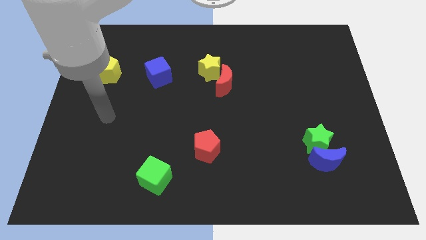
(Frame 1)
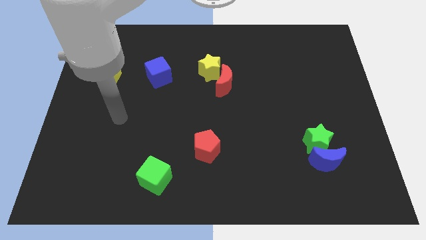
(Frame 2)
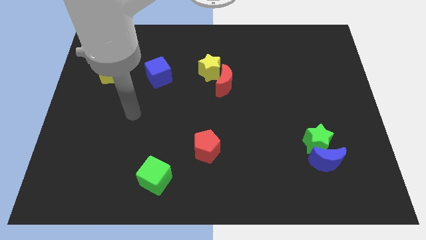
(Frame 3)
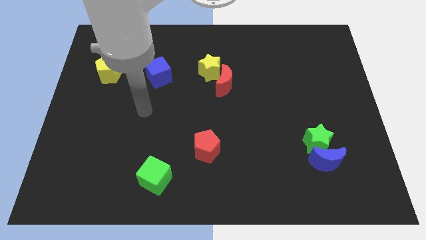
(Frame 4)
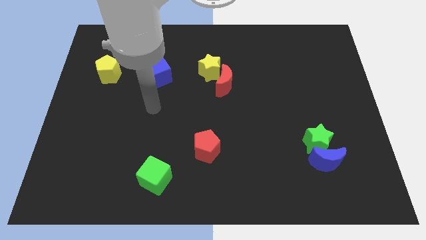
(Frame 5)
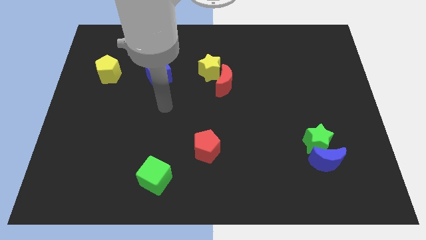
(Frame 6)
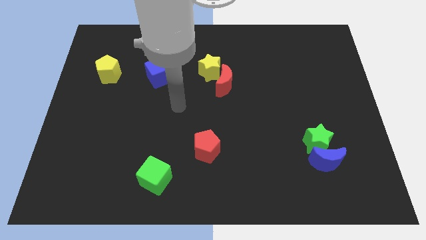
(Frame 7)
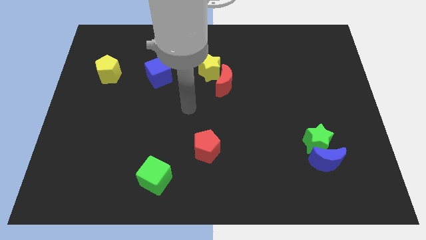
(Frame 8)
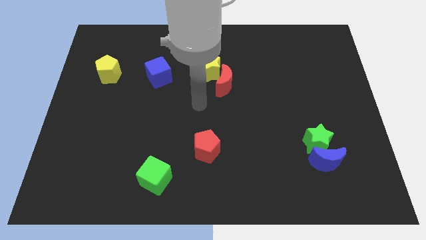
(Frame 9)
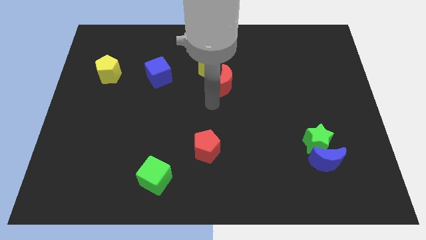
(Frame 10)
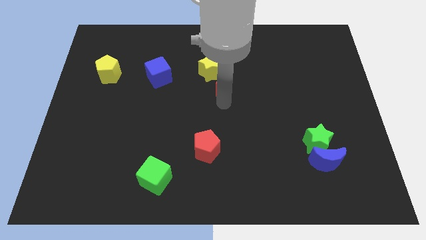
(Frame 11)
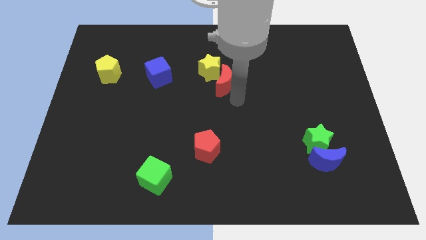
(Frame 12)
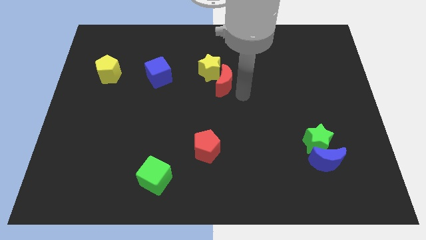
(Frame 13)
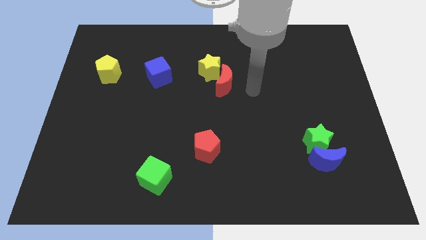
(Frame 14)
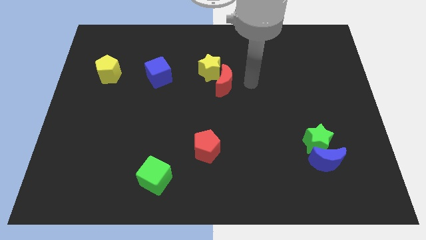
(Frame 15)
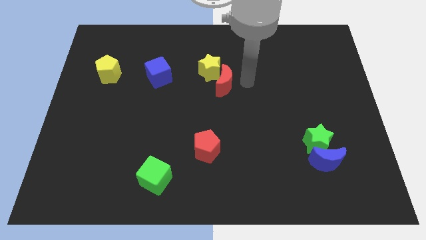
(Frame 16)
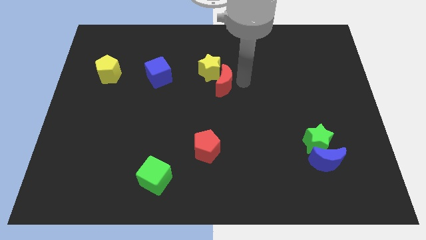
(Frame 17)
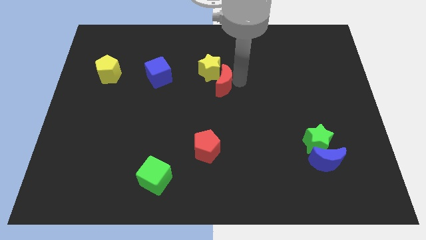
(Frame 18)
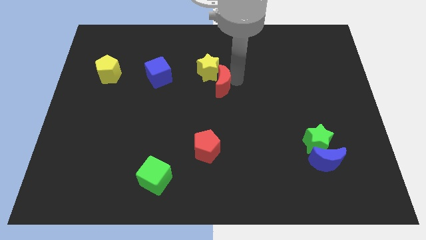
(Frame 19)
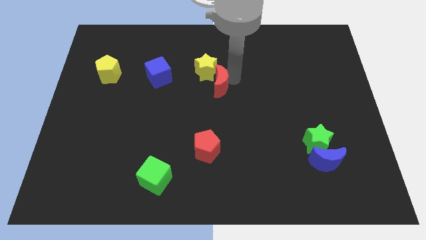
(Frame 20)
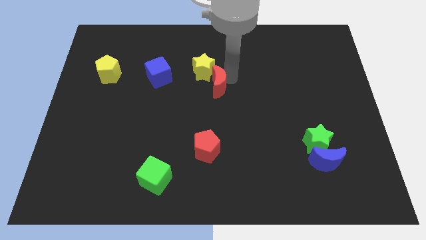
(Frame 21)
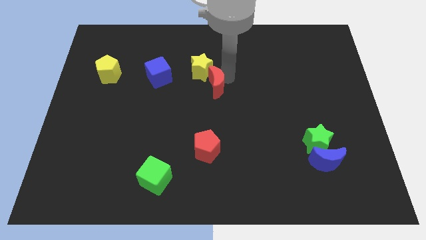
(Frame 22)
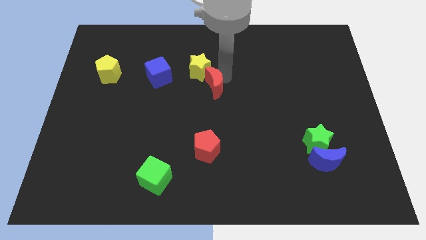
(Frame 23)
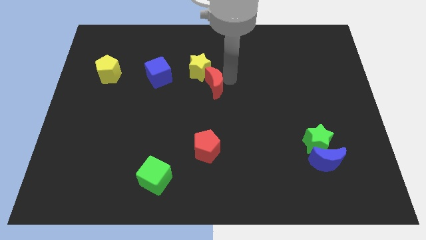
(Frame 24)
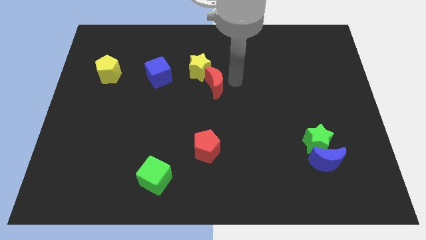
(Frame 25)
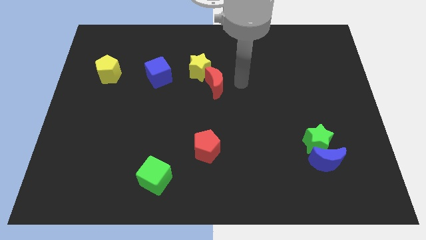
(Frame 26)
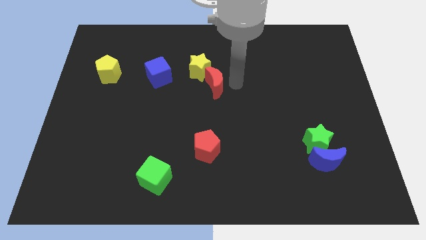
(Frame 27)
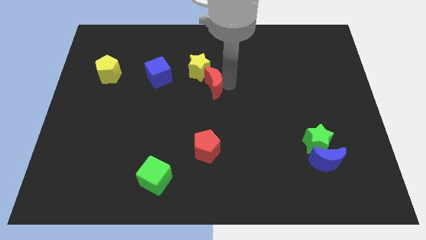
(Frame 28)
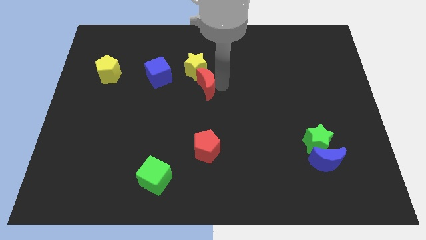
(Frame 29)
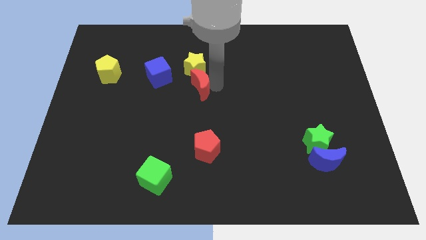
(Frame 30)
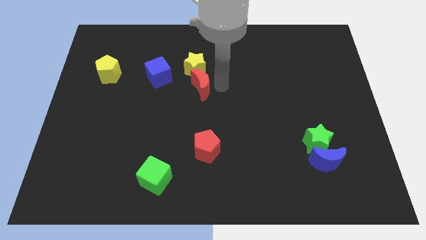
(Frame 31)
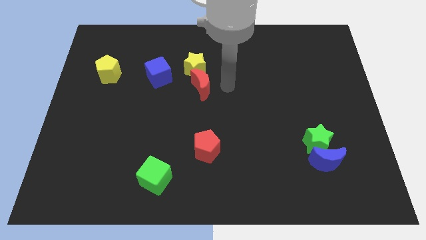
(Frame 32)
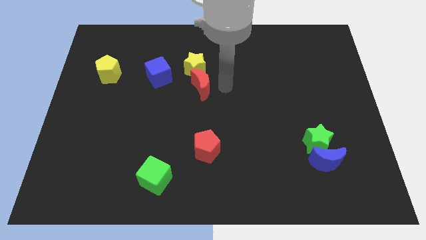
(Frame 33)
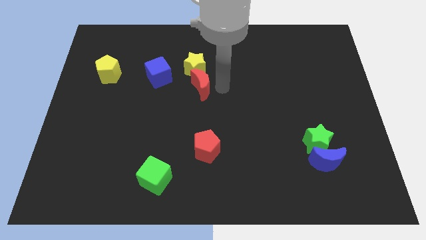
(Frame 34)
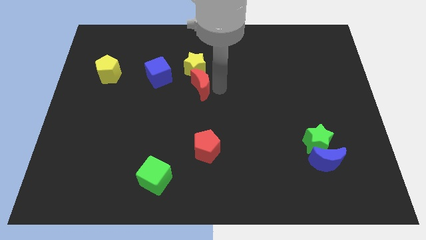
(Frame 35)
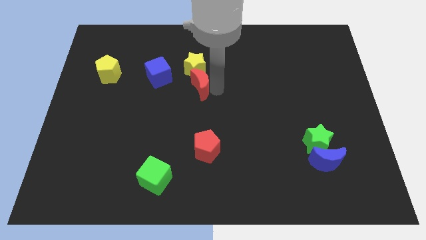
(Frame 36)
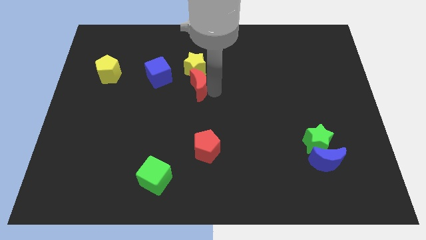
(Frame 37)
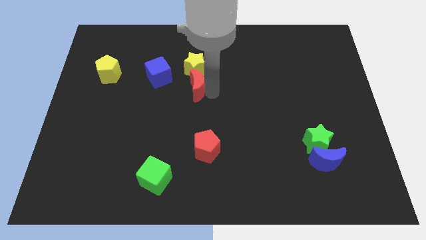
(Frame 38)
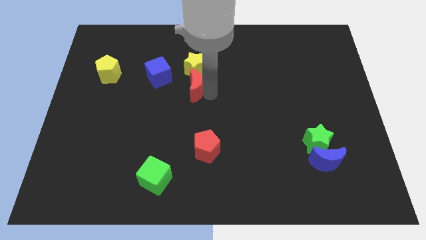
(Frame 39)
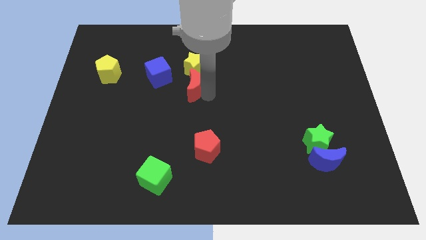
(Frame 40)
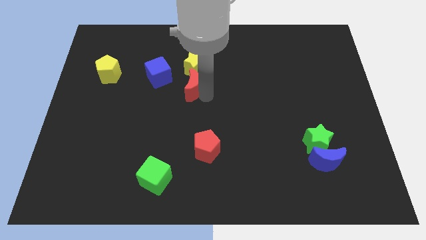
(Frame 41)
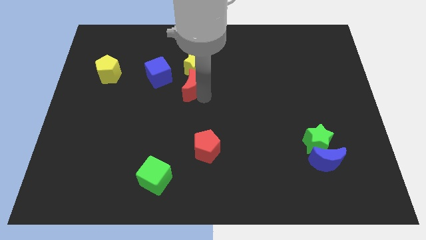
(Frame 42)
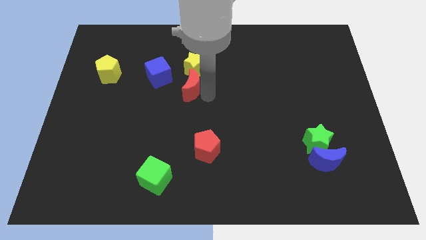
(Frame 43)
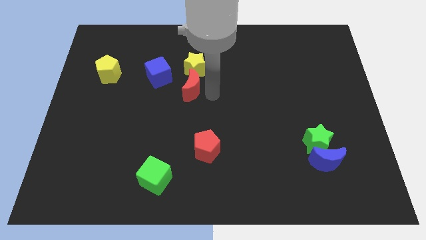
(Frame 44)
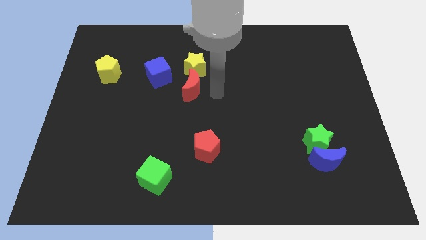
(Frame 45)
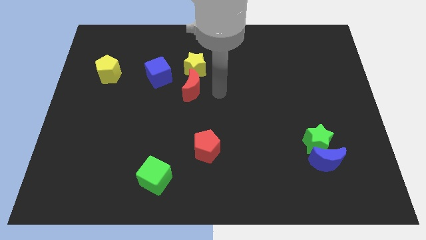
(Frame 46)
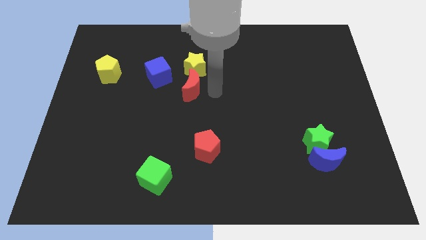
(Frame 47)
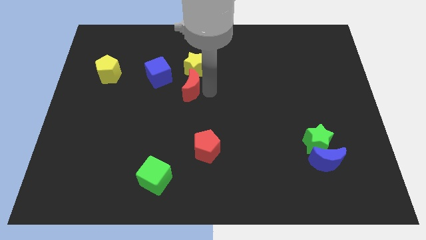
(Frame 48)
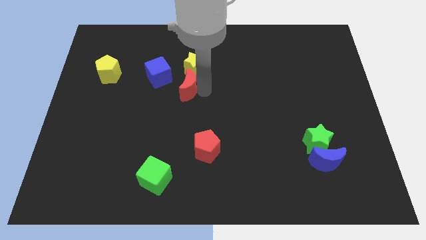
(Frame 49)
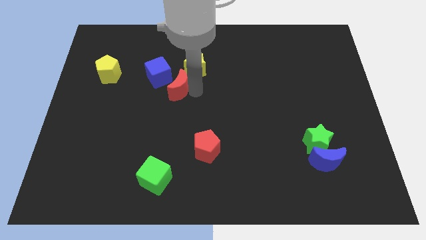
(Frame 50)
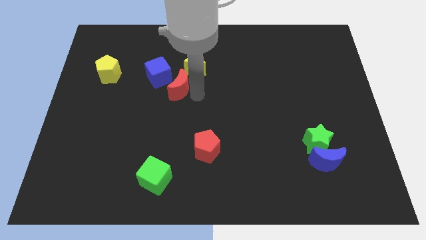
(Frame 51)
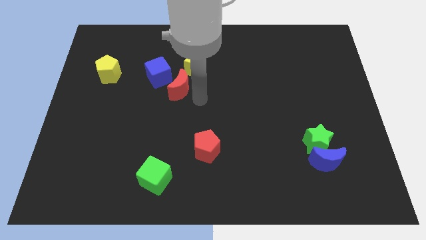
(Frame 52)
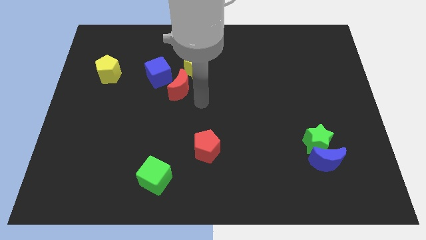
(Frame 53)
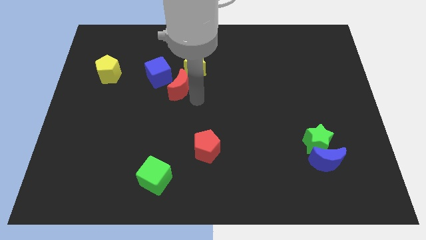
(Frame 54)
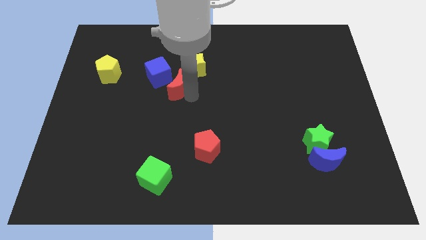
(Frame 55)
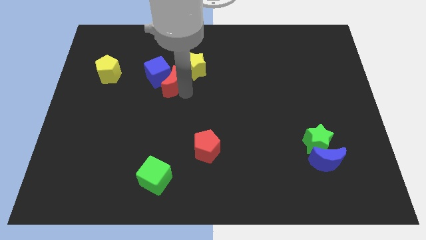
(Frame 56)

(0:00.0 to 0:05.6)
slide the red moon next to the blue cube

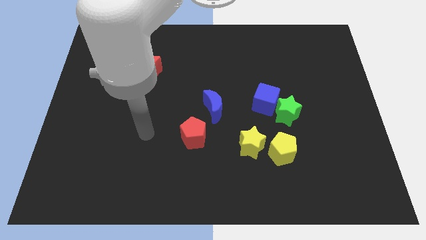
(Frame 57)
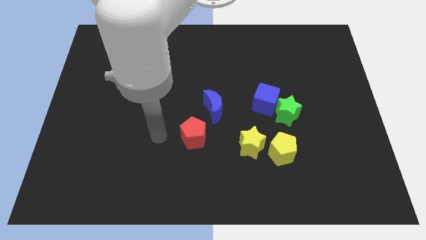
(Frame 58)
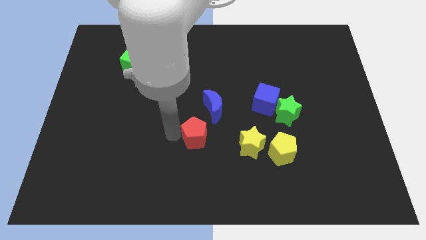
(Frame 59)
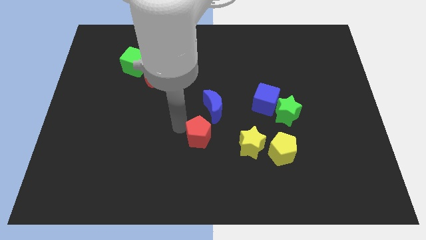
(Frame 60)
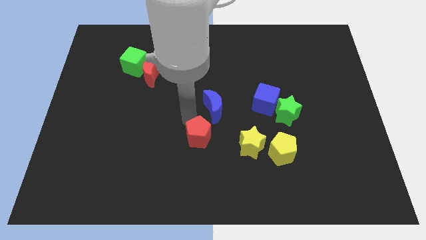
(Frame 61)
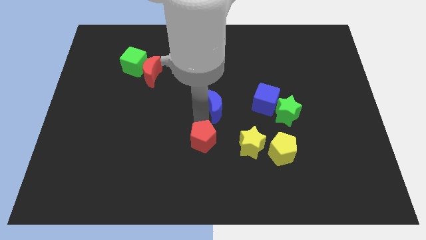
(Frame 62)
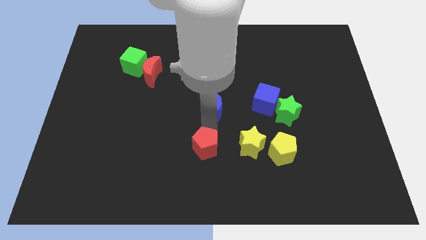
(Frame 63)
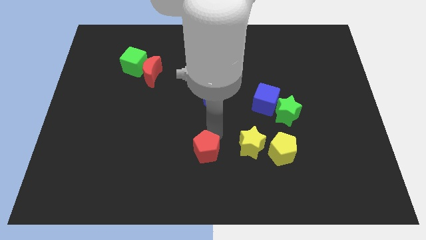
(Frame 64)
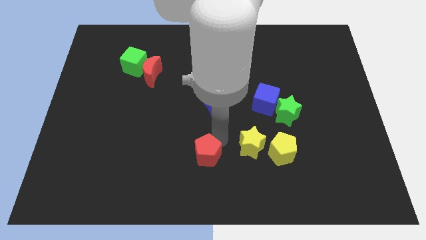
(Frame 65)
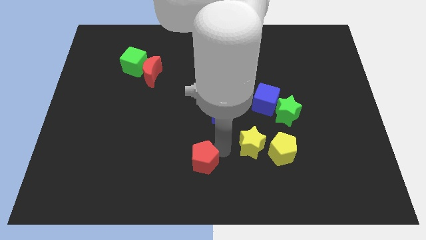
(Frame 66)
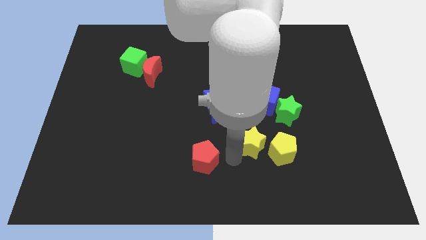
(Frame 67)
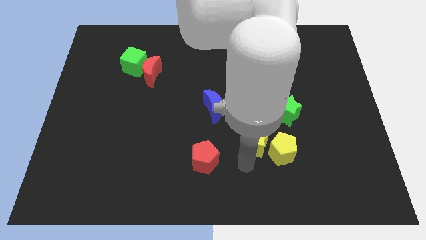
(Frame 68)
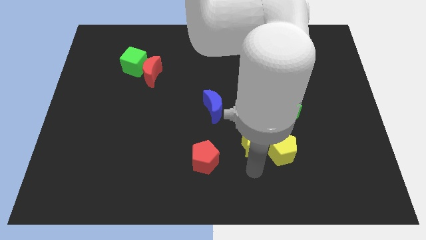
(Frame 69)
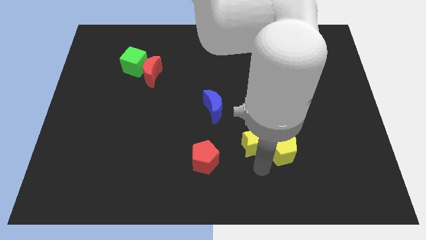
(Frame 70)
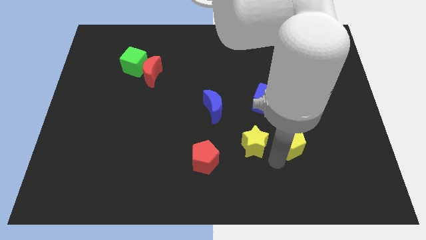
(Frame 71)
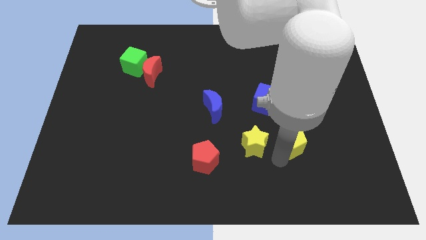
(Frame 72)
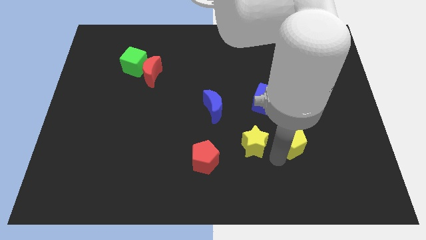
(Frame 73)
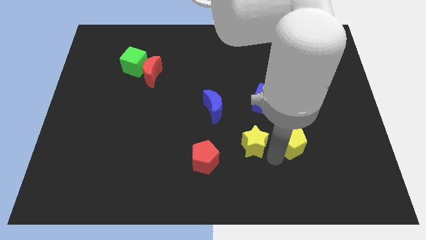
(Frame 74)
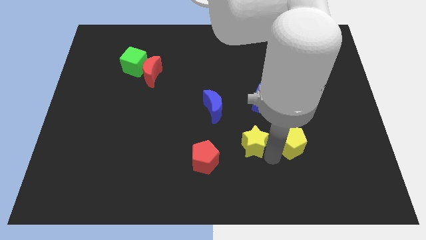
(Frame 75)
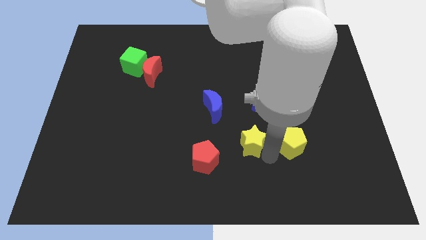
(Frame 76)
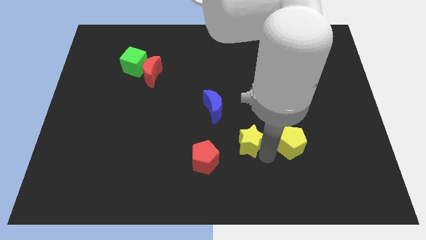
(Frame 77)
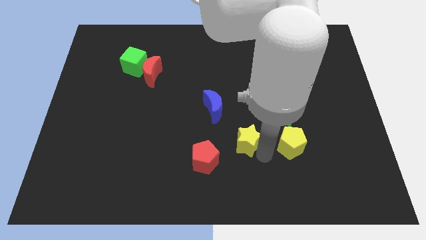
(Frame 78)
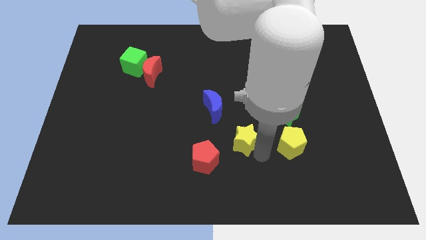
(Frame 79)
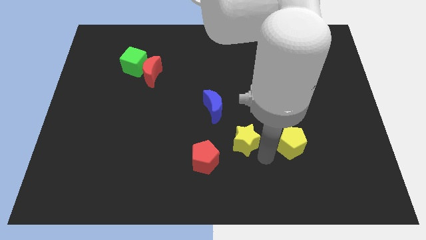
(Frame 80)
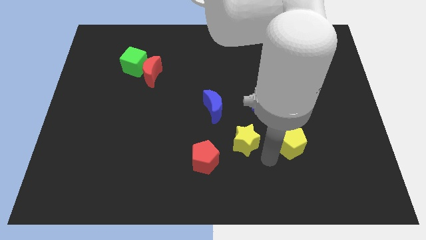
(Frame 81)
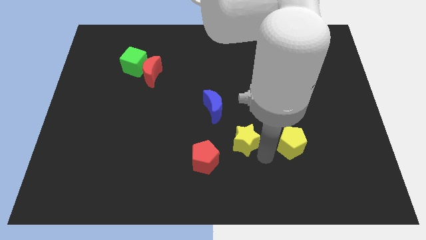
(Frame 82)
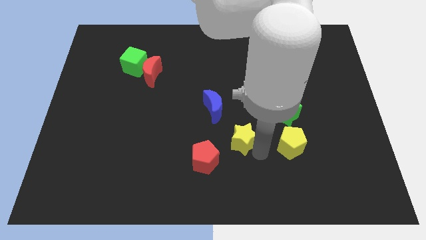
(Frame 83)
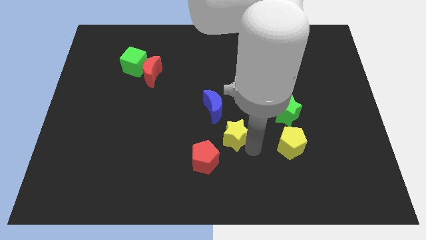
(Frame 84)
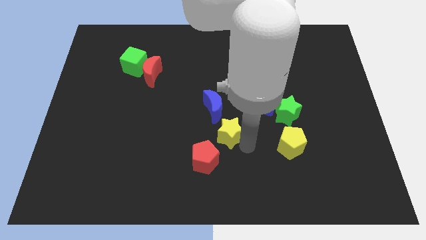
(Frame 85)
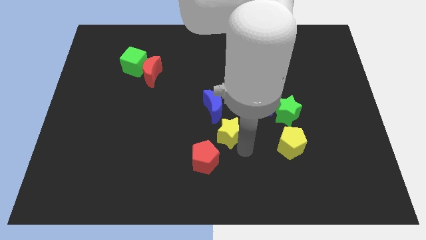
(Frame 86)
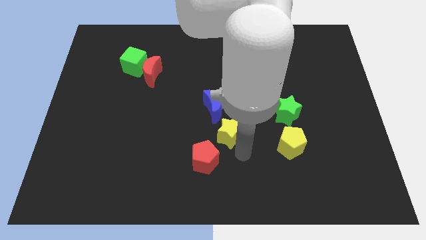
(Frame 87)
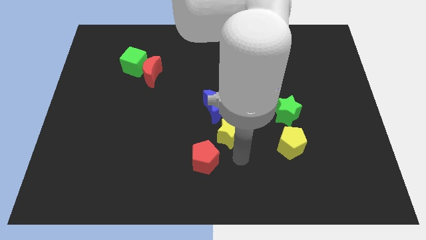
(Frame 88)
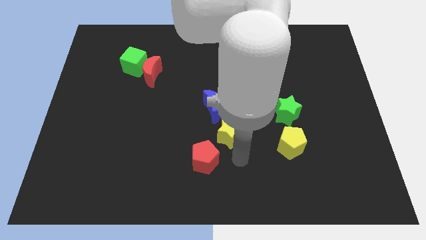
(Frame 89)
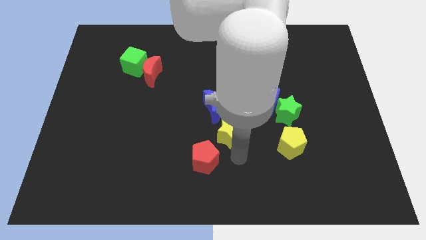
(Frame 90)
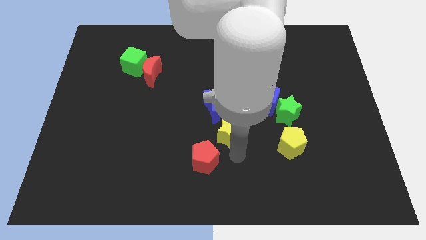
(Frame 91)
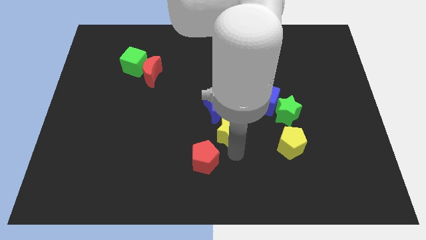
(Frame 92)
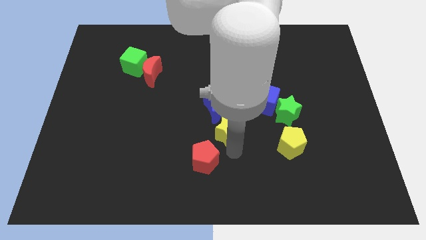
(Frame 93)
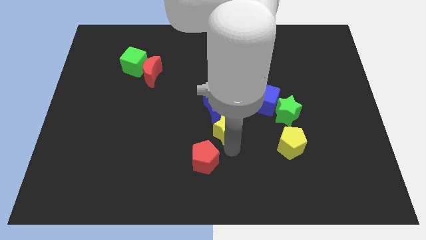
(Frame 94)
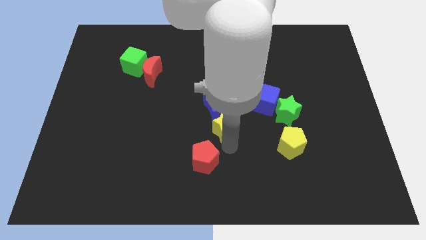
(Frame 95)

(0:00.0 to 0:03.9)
push the yellow star to the blue moon
